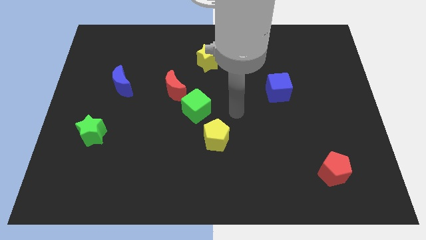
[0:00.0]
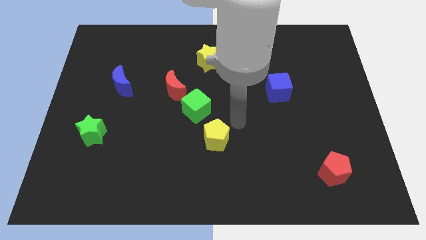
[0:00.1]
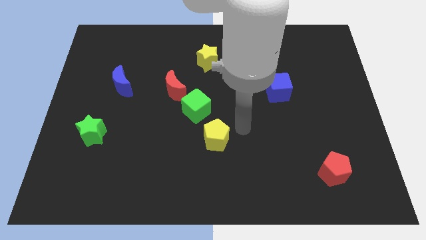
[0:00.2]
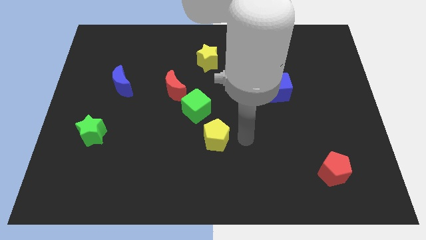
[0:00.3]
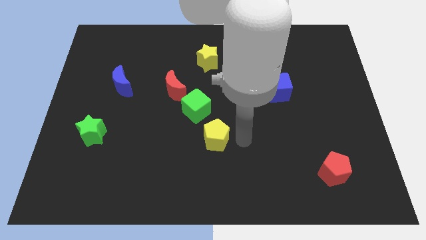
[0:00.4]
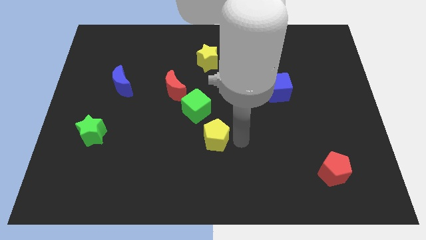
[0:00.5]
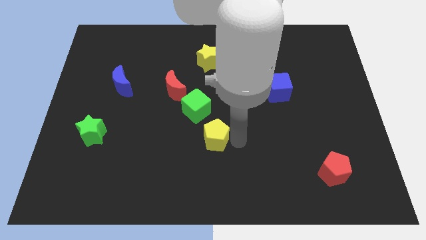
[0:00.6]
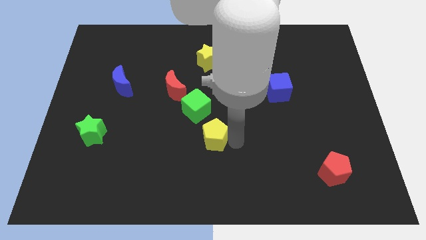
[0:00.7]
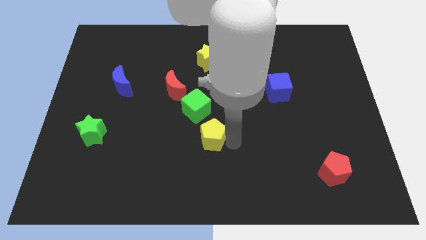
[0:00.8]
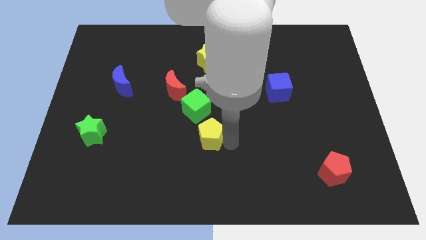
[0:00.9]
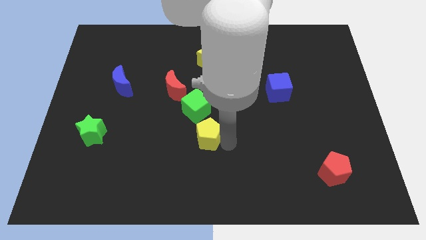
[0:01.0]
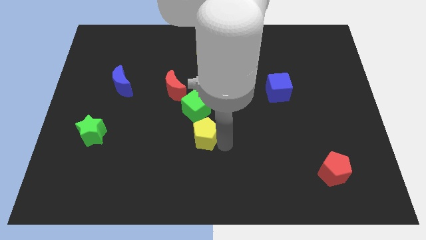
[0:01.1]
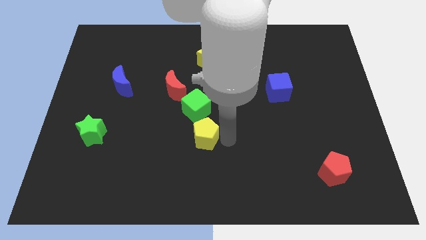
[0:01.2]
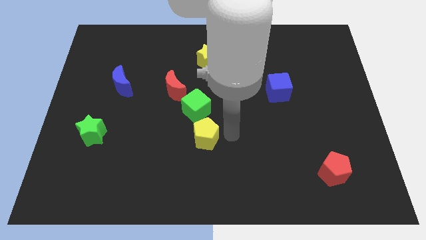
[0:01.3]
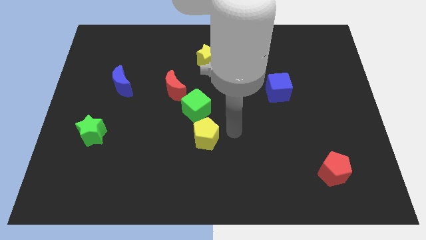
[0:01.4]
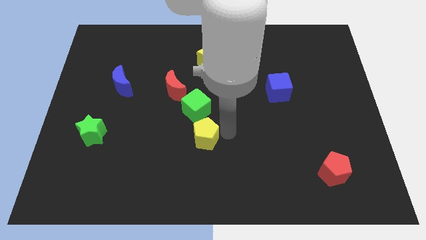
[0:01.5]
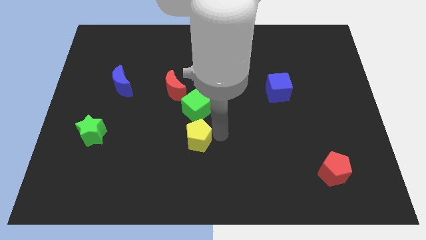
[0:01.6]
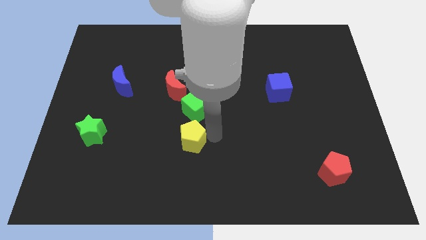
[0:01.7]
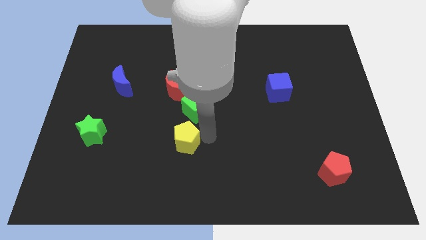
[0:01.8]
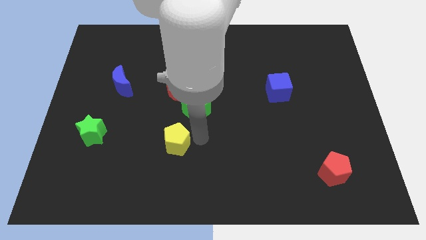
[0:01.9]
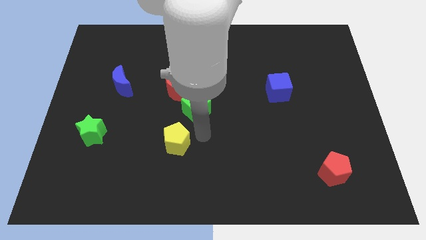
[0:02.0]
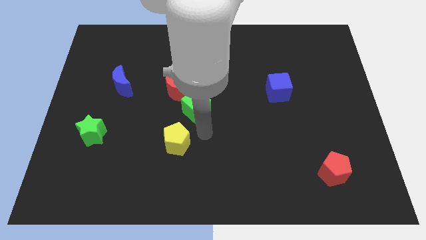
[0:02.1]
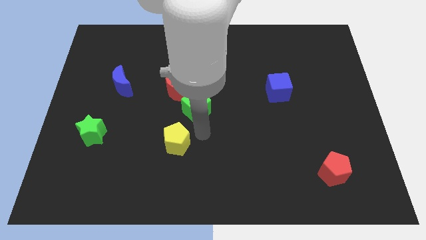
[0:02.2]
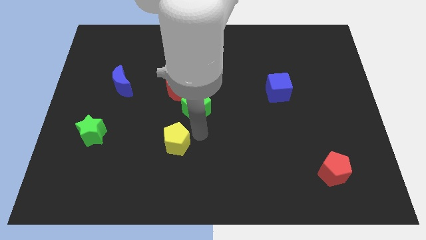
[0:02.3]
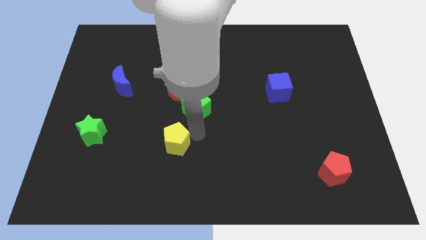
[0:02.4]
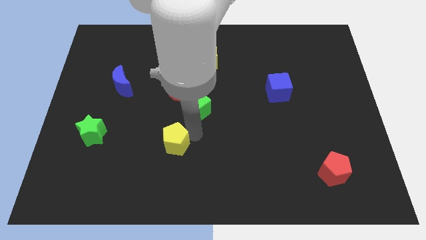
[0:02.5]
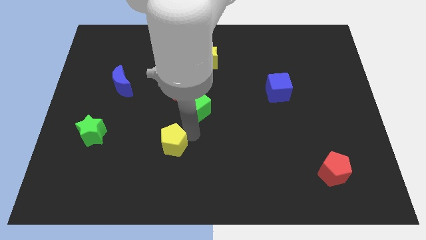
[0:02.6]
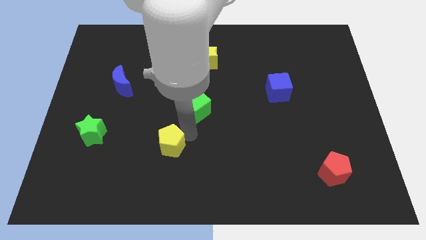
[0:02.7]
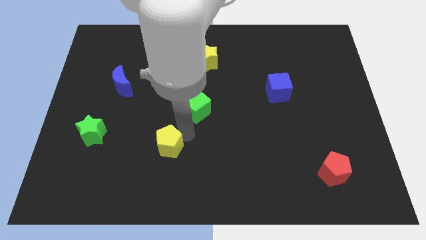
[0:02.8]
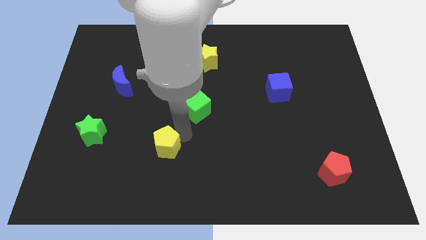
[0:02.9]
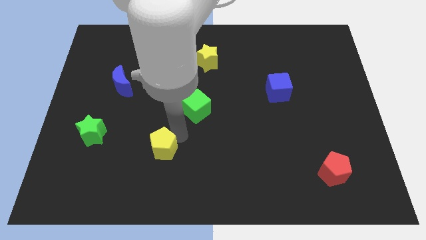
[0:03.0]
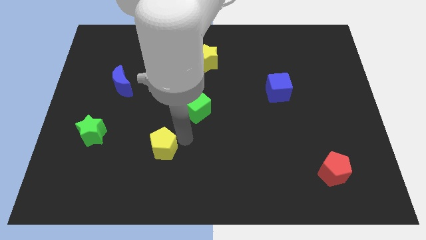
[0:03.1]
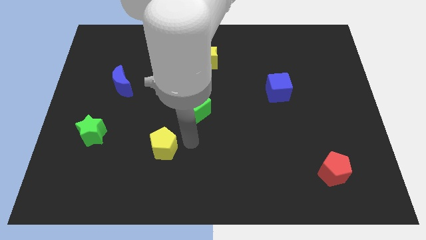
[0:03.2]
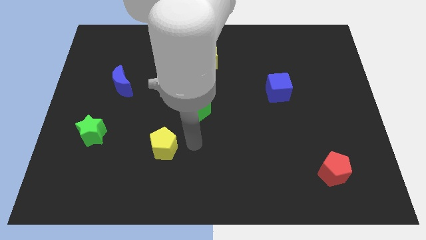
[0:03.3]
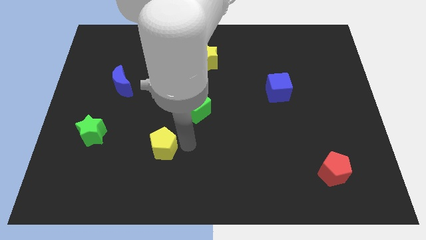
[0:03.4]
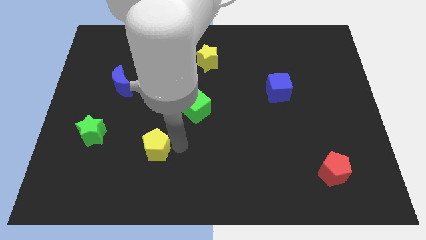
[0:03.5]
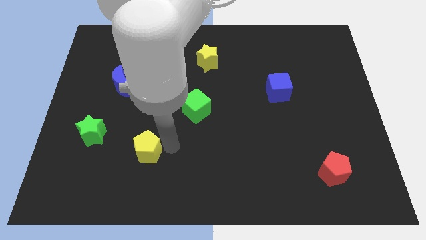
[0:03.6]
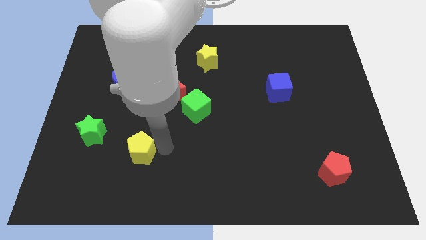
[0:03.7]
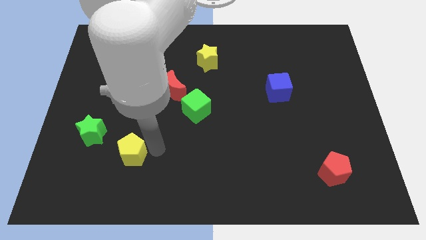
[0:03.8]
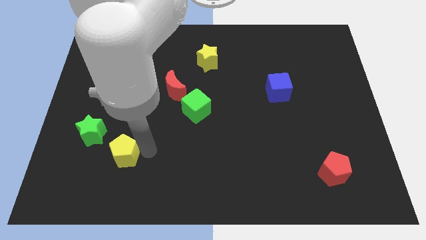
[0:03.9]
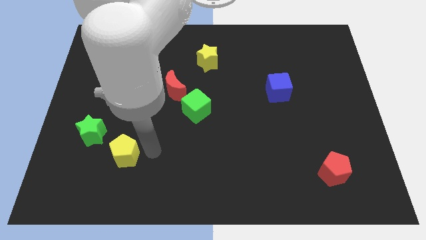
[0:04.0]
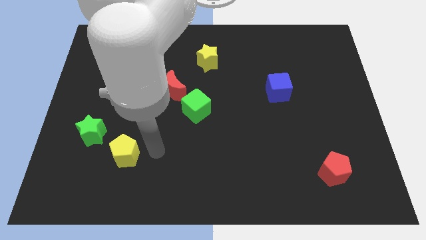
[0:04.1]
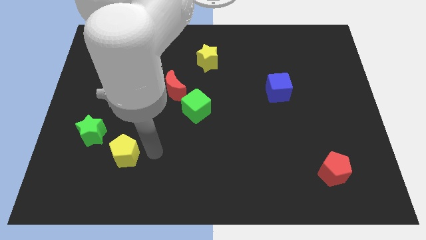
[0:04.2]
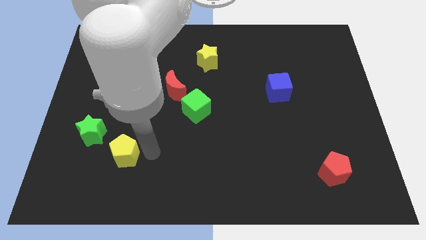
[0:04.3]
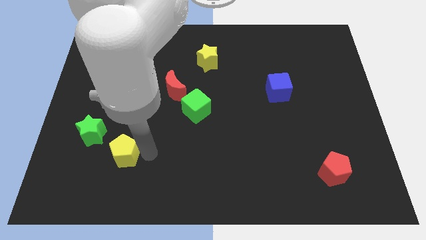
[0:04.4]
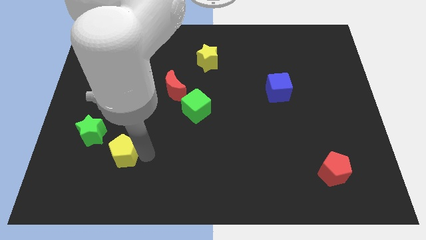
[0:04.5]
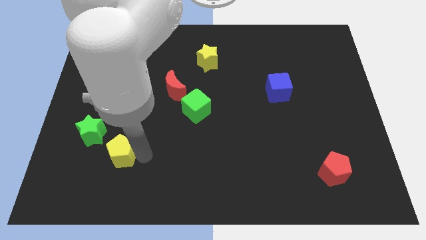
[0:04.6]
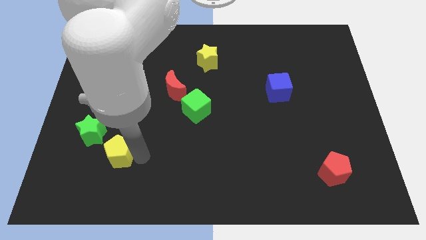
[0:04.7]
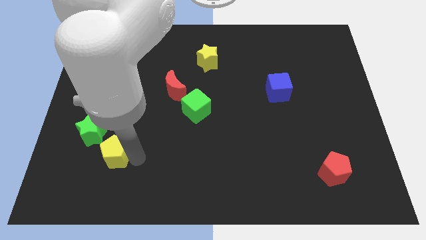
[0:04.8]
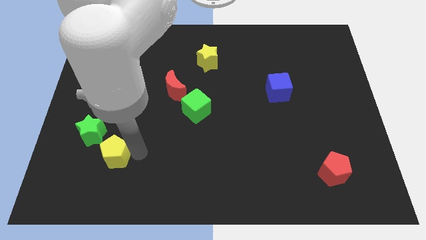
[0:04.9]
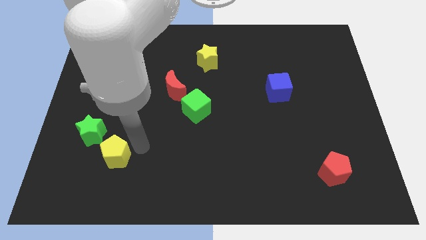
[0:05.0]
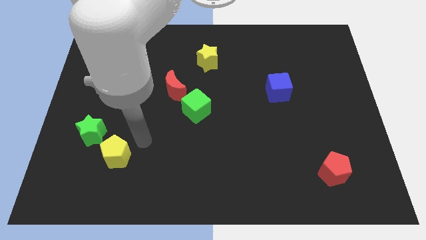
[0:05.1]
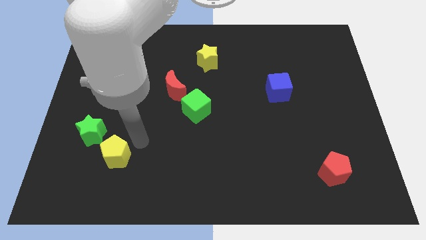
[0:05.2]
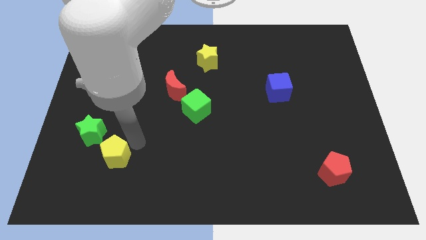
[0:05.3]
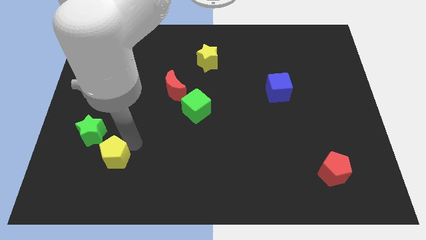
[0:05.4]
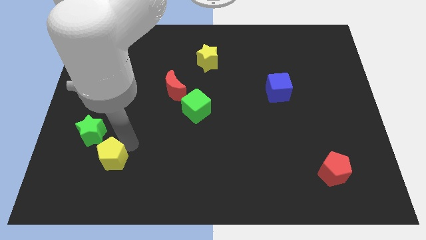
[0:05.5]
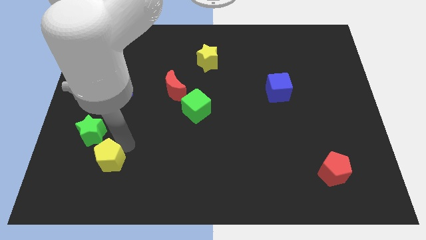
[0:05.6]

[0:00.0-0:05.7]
slide the yellow pentagon to the bottom of the green star

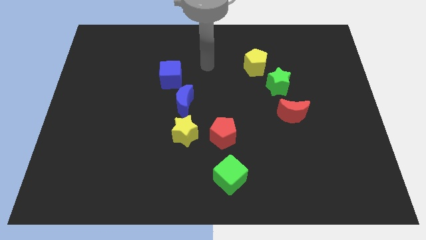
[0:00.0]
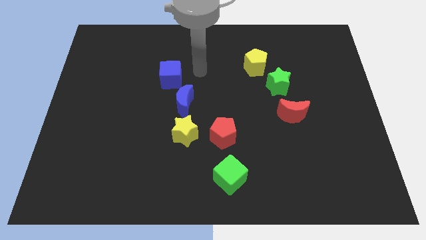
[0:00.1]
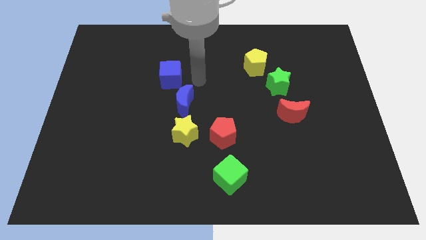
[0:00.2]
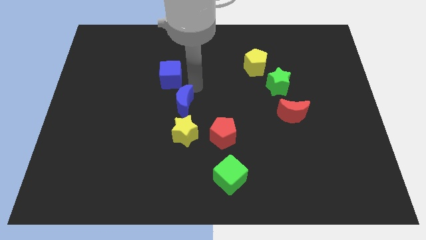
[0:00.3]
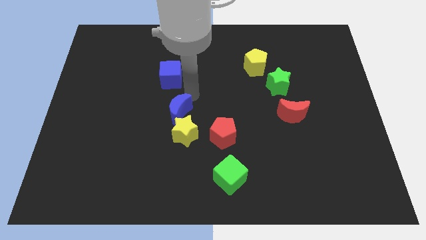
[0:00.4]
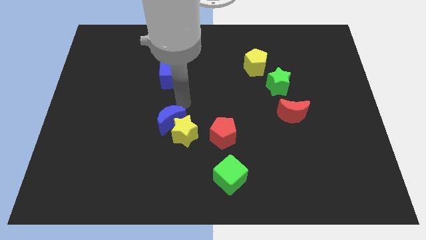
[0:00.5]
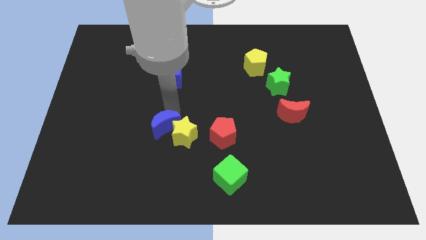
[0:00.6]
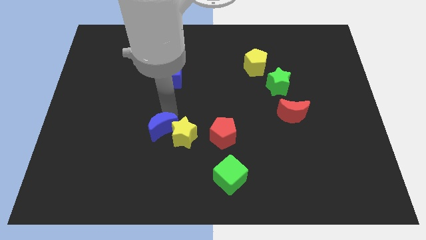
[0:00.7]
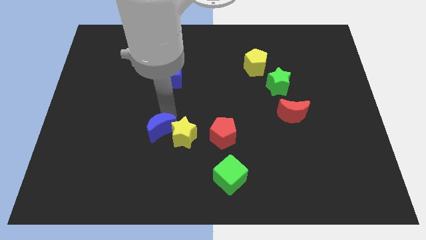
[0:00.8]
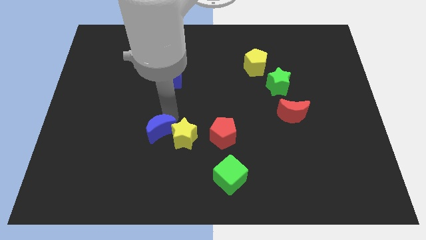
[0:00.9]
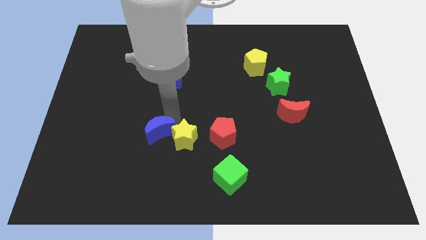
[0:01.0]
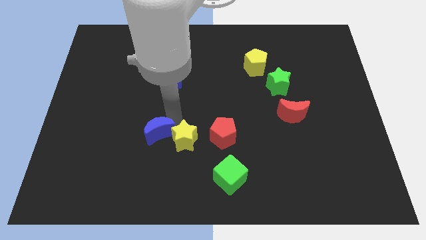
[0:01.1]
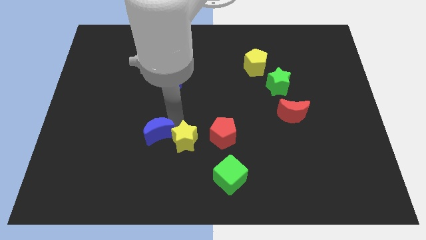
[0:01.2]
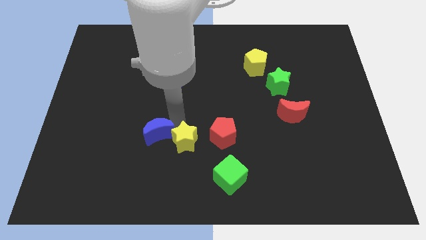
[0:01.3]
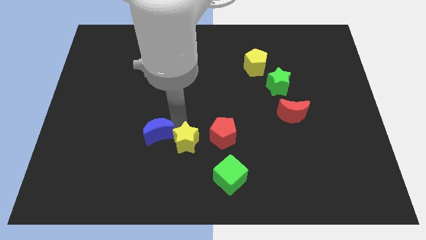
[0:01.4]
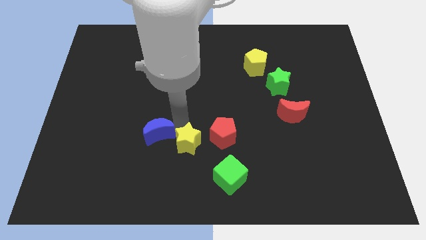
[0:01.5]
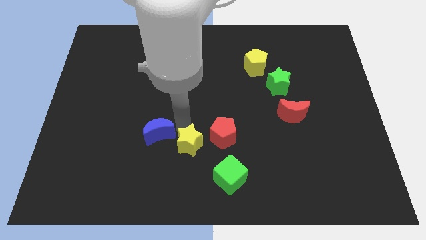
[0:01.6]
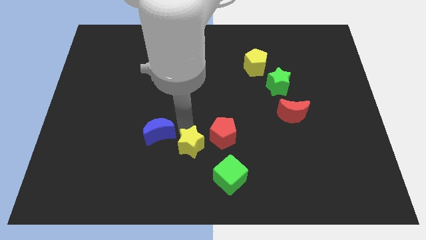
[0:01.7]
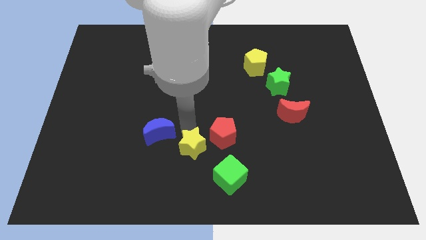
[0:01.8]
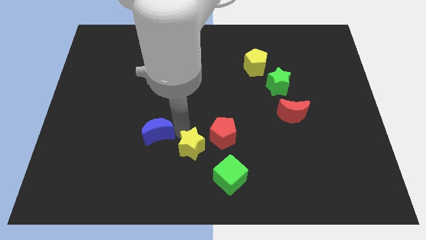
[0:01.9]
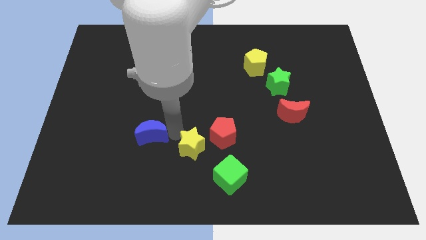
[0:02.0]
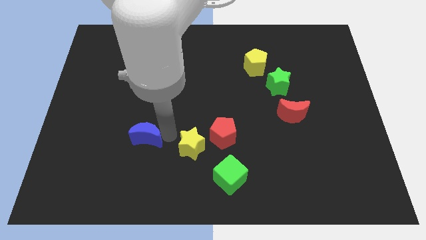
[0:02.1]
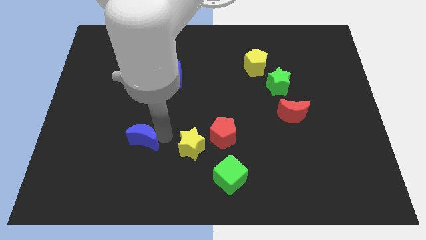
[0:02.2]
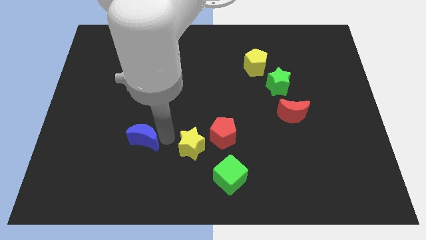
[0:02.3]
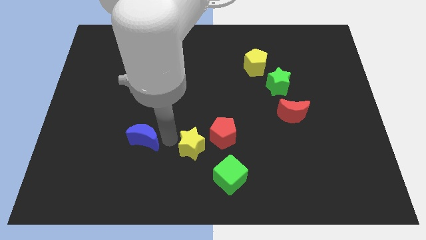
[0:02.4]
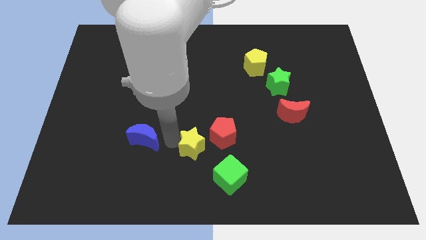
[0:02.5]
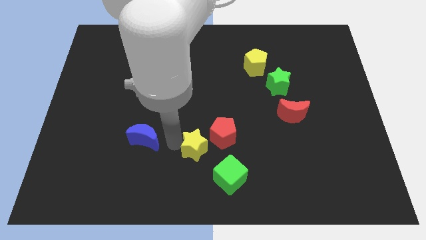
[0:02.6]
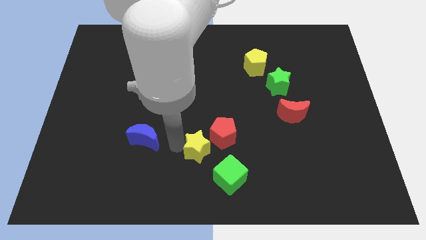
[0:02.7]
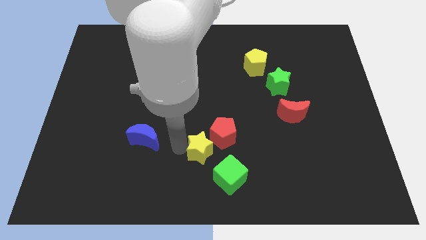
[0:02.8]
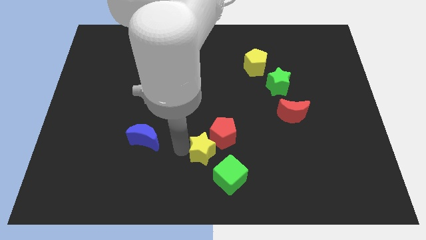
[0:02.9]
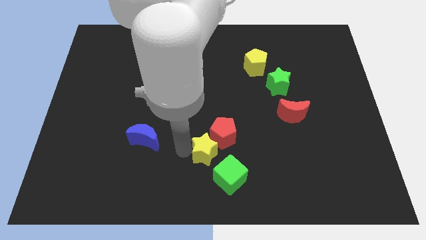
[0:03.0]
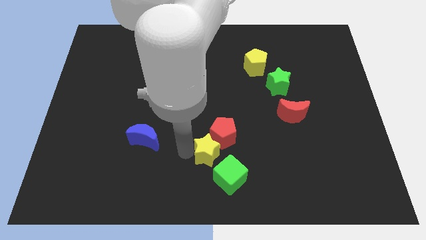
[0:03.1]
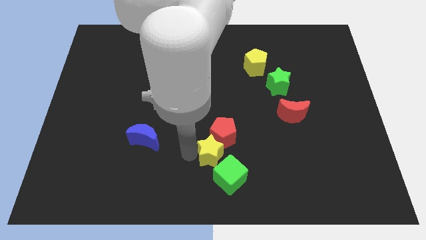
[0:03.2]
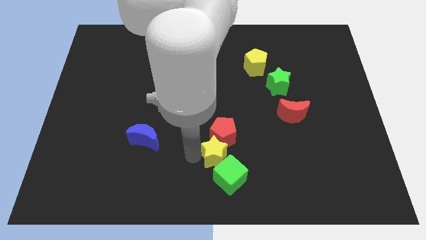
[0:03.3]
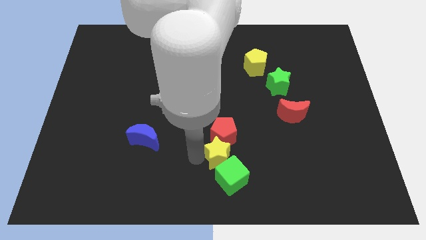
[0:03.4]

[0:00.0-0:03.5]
put the yellow star to the bottom right of the red pentagon
